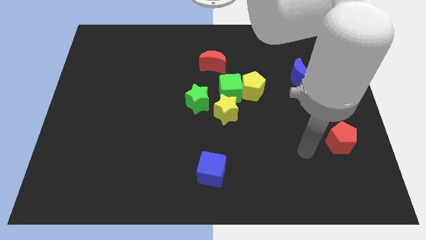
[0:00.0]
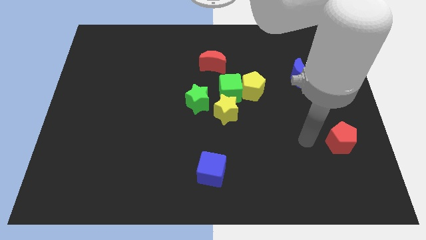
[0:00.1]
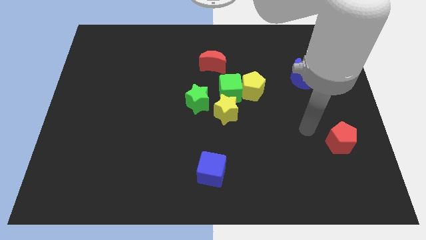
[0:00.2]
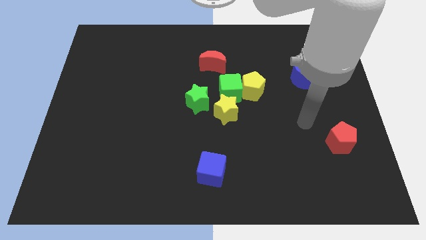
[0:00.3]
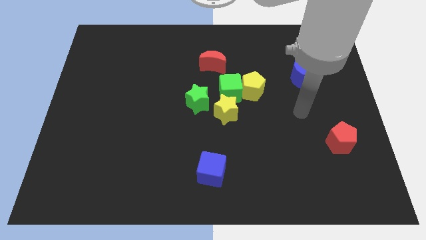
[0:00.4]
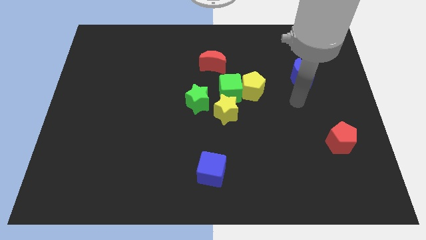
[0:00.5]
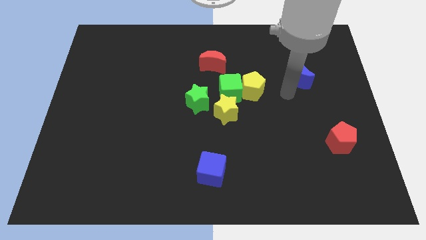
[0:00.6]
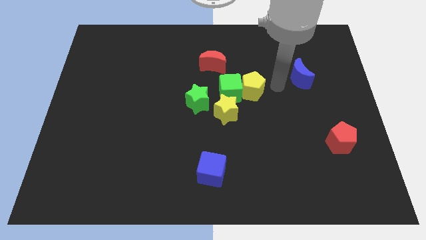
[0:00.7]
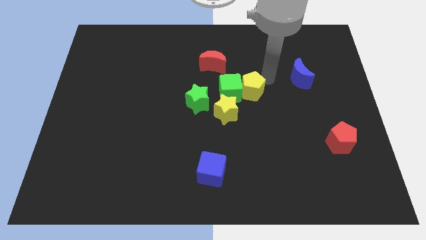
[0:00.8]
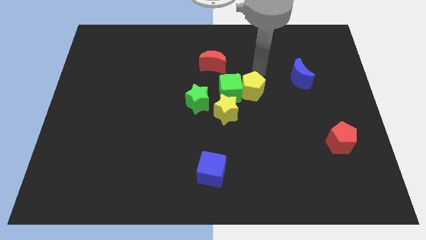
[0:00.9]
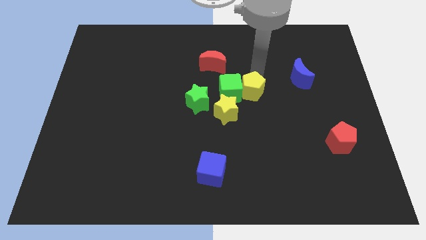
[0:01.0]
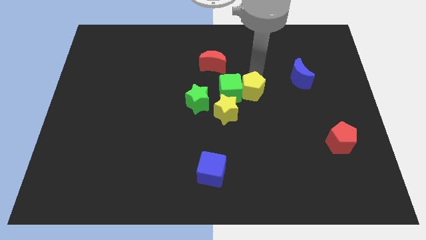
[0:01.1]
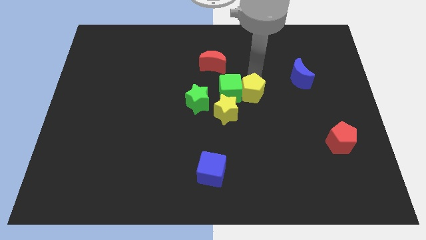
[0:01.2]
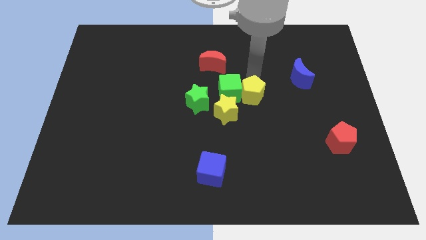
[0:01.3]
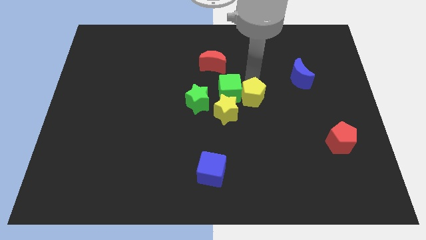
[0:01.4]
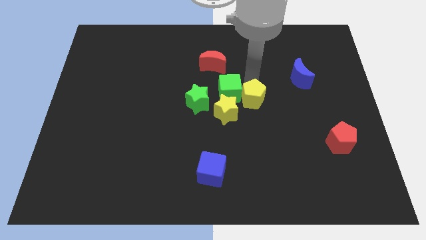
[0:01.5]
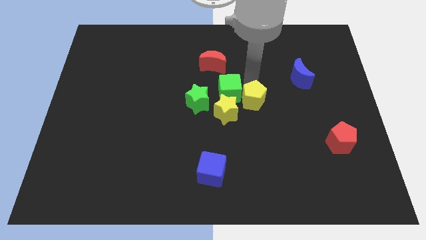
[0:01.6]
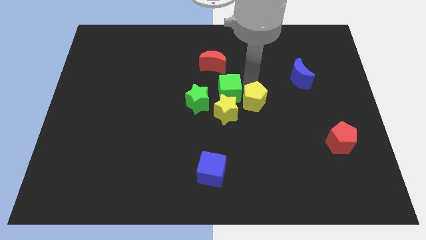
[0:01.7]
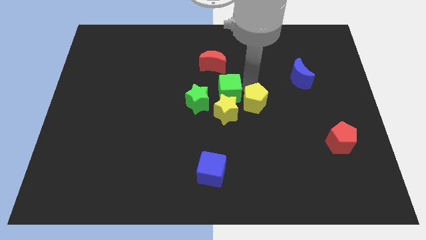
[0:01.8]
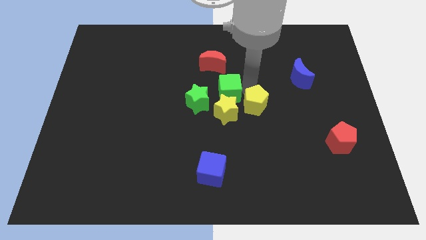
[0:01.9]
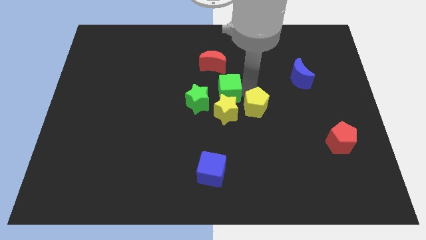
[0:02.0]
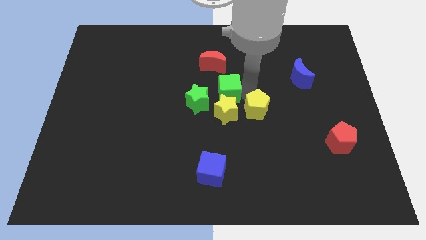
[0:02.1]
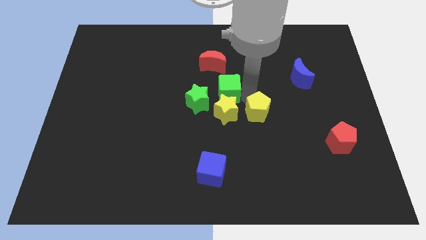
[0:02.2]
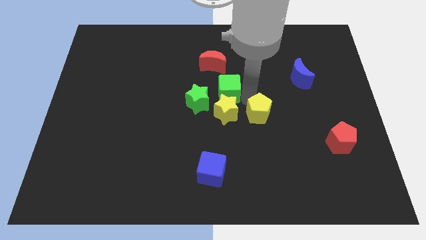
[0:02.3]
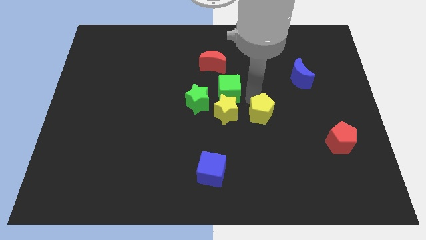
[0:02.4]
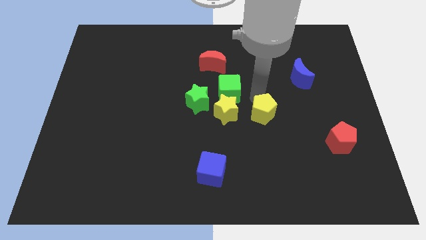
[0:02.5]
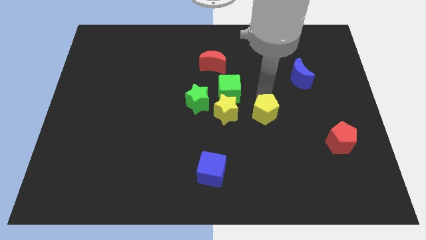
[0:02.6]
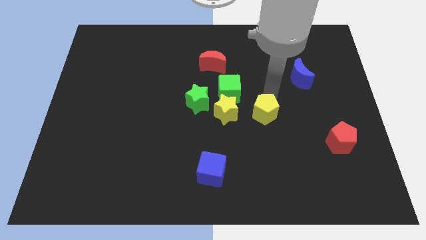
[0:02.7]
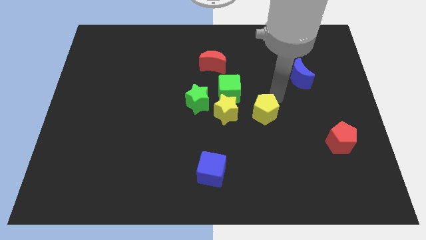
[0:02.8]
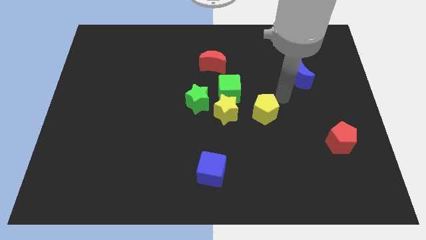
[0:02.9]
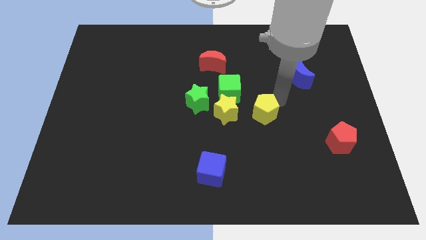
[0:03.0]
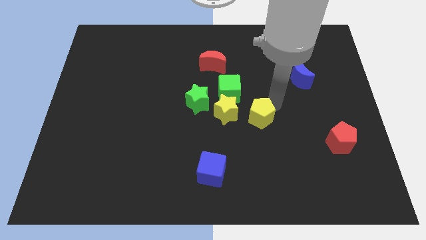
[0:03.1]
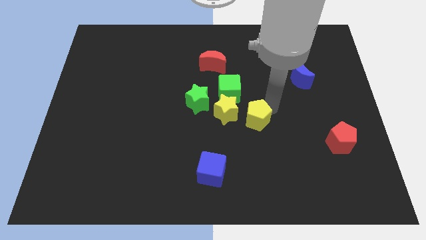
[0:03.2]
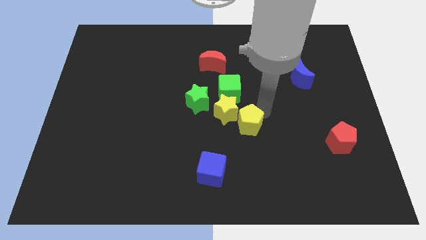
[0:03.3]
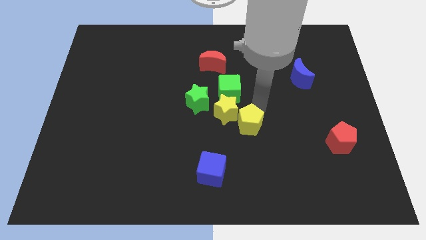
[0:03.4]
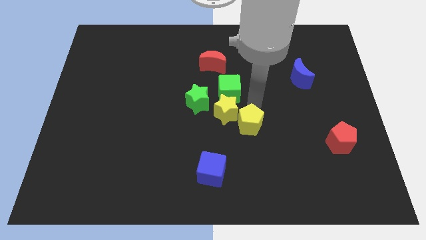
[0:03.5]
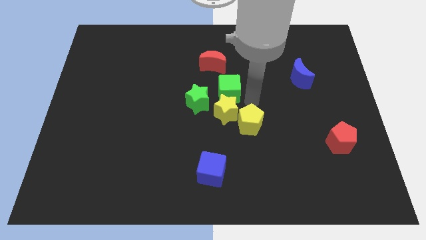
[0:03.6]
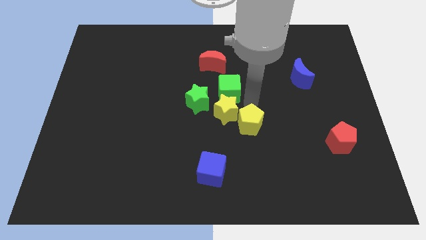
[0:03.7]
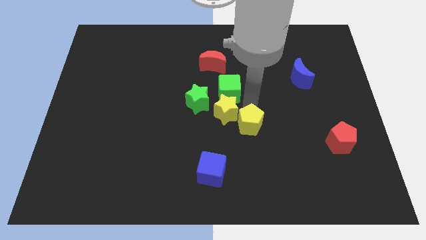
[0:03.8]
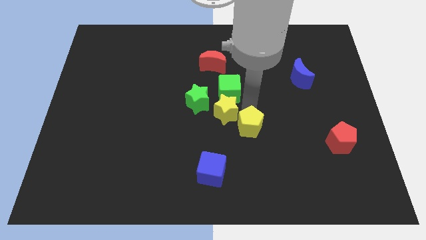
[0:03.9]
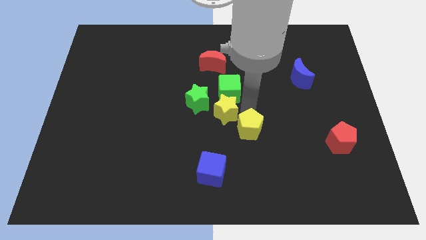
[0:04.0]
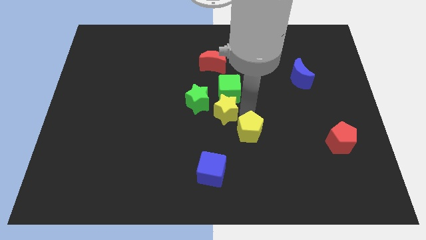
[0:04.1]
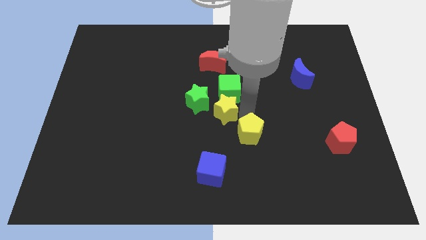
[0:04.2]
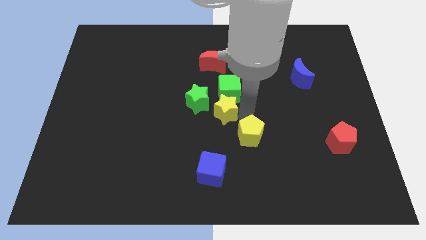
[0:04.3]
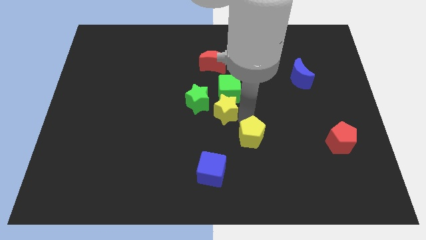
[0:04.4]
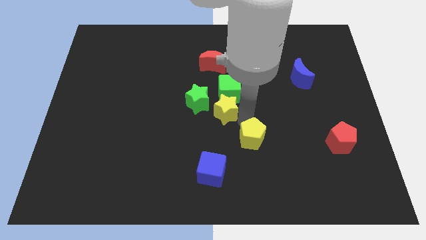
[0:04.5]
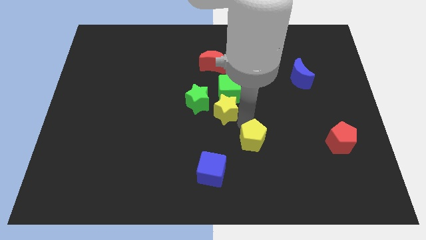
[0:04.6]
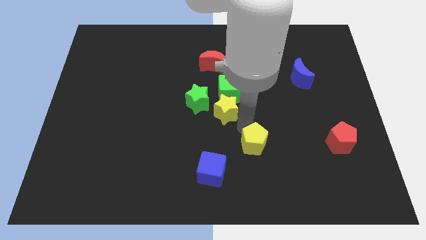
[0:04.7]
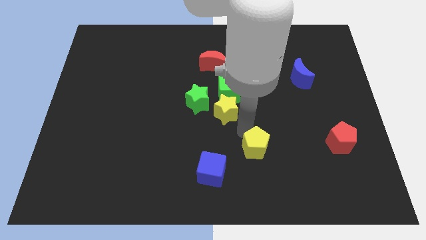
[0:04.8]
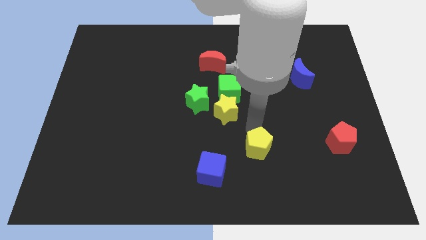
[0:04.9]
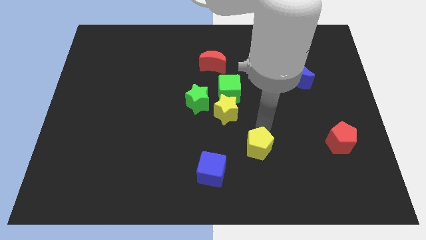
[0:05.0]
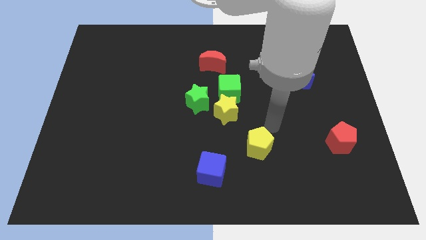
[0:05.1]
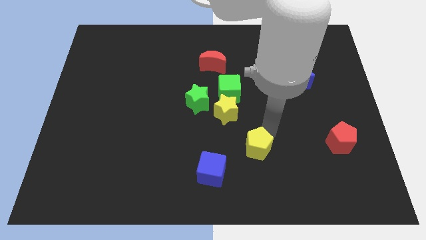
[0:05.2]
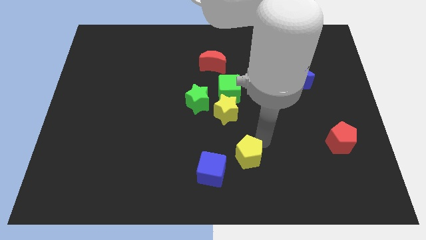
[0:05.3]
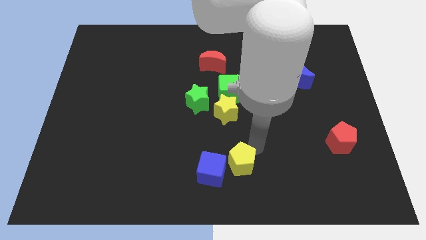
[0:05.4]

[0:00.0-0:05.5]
move the yellow pentagon to the bottom side

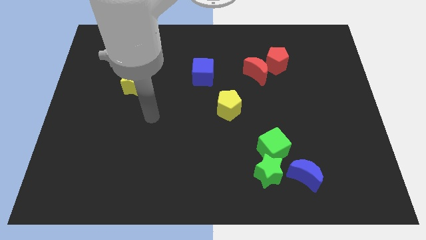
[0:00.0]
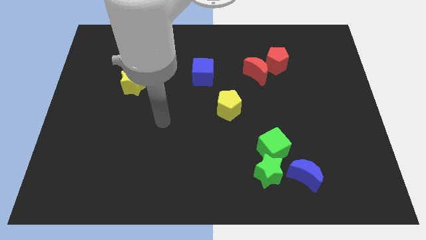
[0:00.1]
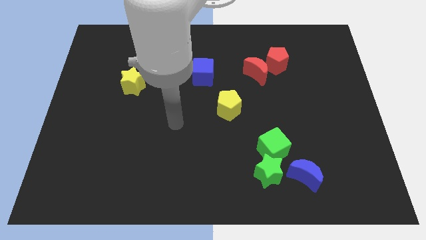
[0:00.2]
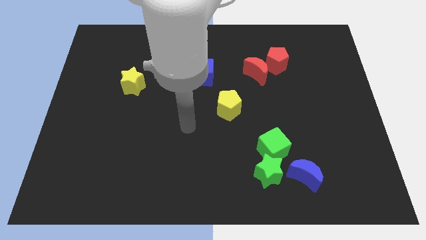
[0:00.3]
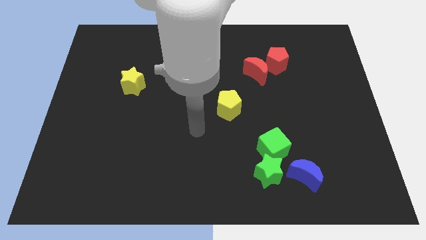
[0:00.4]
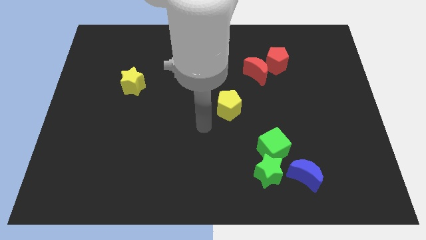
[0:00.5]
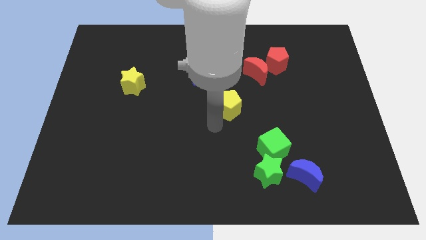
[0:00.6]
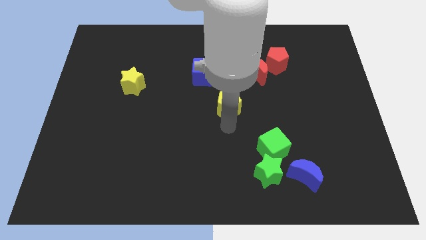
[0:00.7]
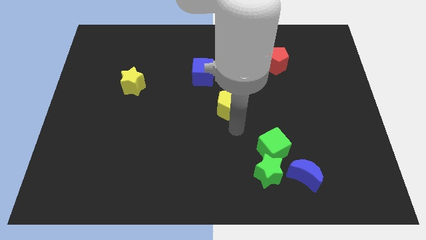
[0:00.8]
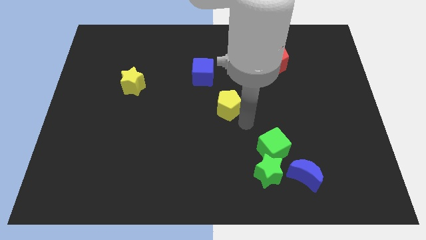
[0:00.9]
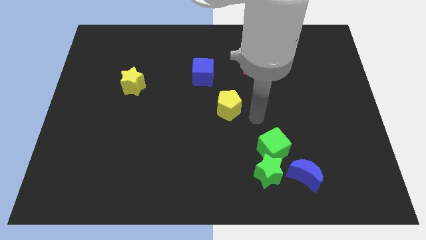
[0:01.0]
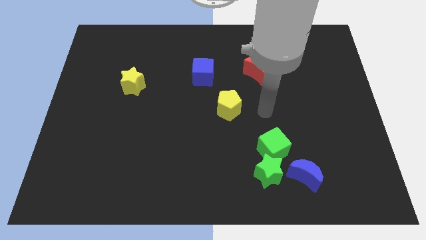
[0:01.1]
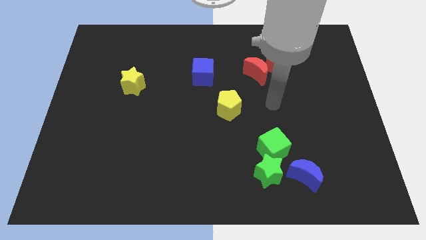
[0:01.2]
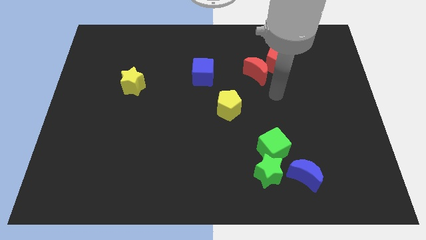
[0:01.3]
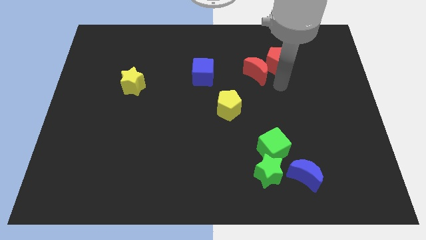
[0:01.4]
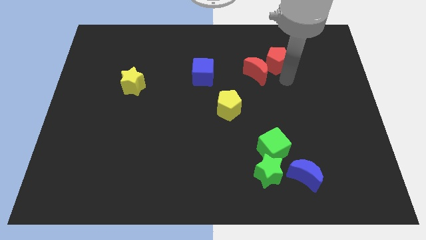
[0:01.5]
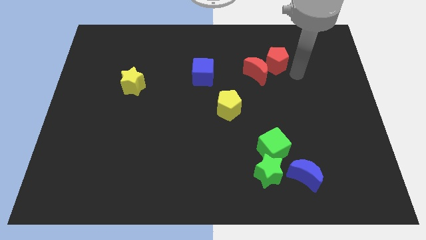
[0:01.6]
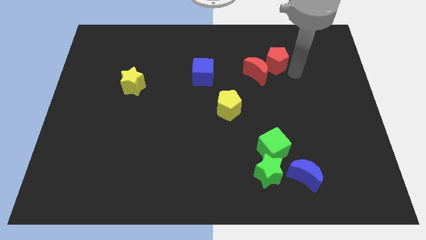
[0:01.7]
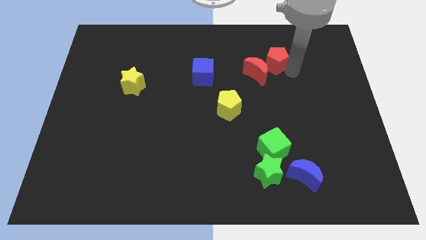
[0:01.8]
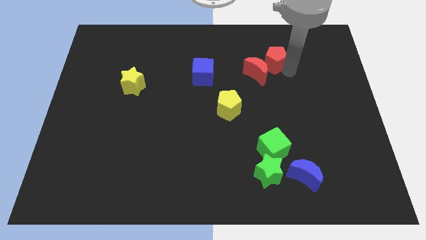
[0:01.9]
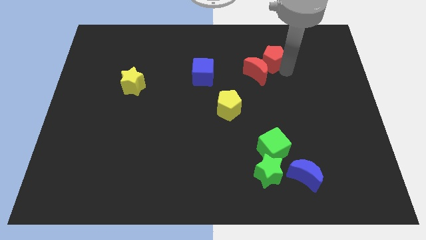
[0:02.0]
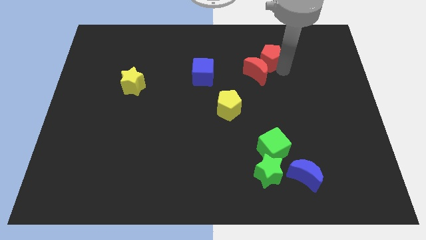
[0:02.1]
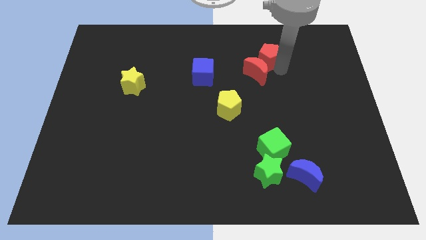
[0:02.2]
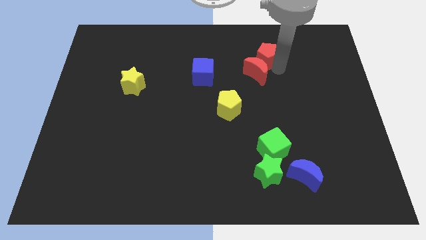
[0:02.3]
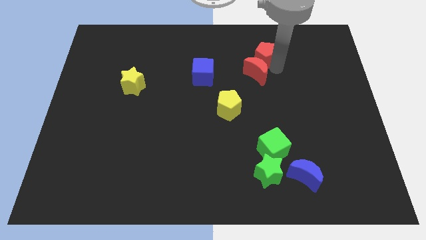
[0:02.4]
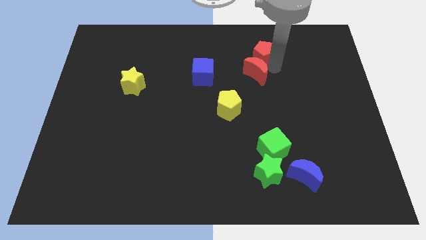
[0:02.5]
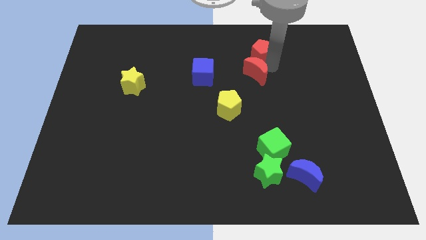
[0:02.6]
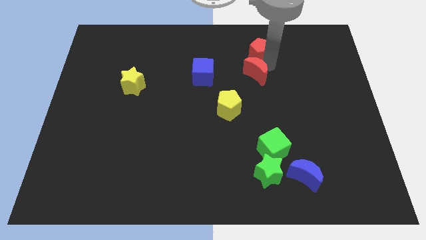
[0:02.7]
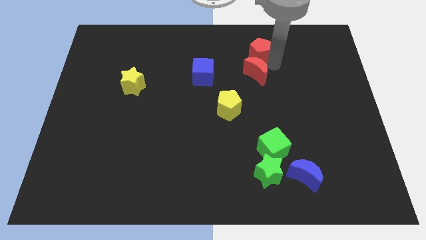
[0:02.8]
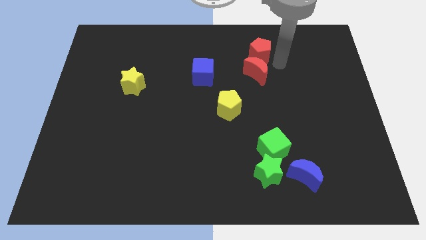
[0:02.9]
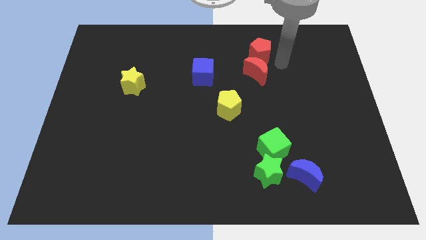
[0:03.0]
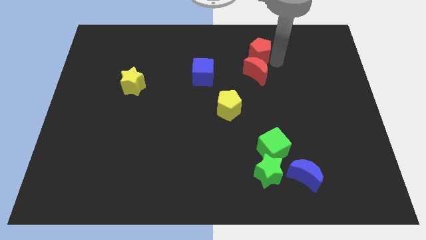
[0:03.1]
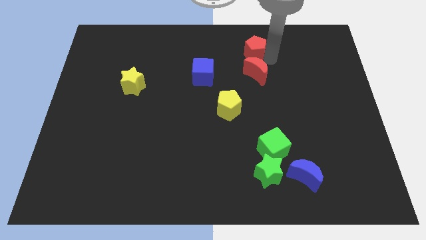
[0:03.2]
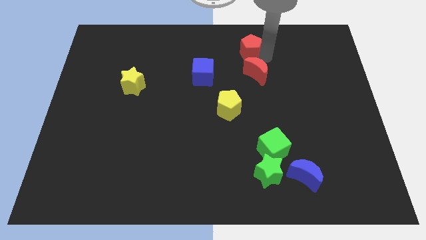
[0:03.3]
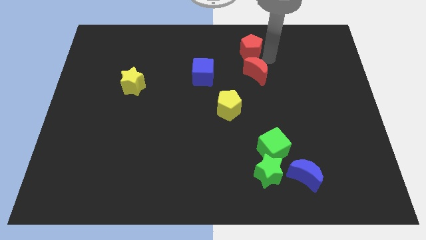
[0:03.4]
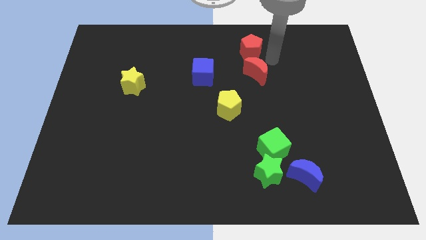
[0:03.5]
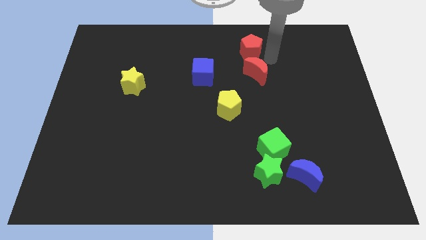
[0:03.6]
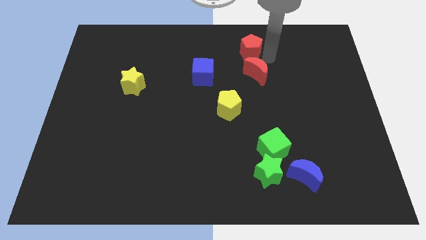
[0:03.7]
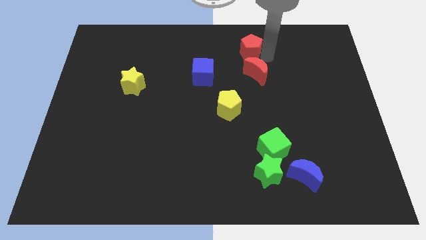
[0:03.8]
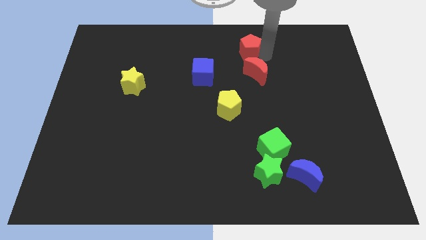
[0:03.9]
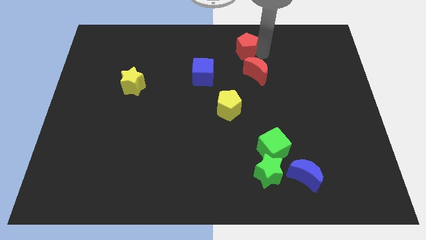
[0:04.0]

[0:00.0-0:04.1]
push the red pentagon to the top side
